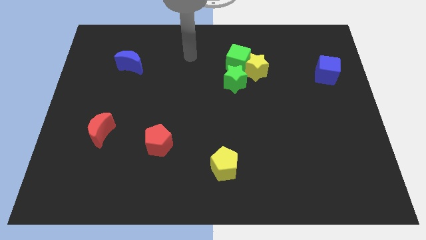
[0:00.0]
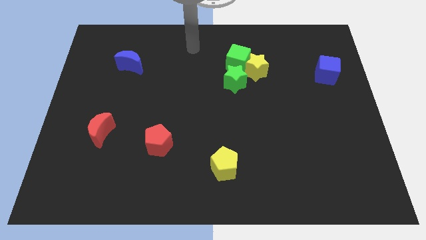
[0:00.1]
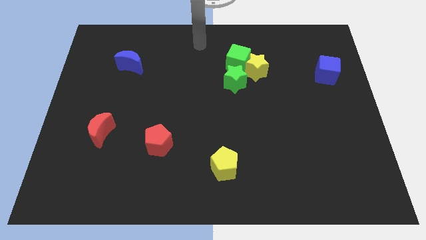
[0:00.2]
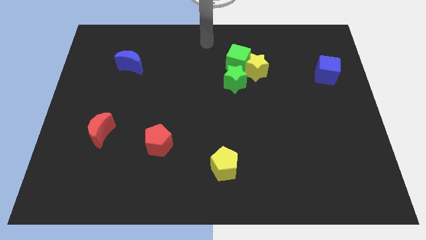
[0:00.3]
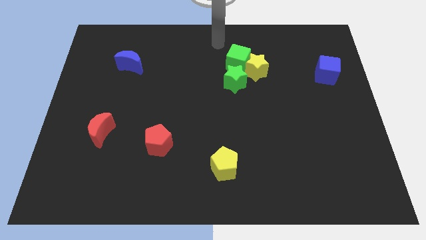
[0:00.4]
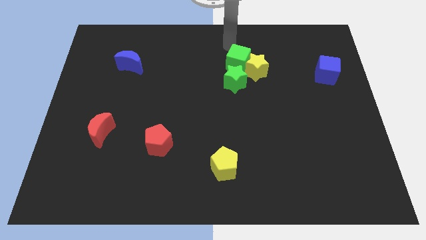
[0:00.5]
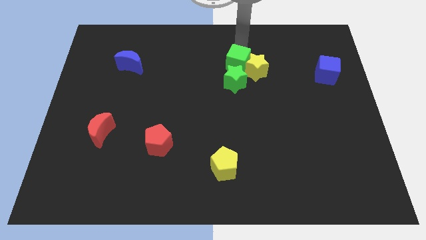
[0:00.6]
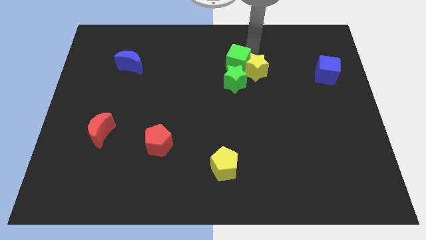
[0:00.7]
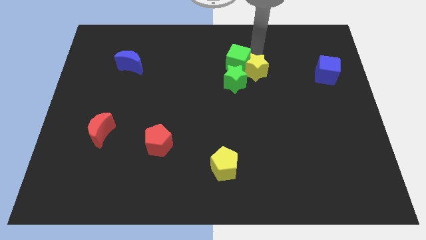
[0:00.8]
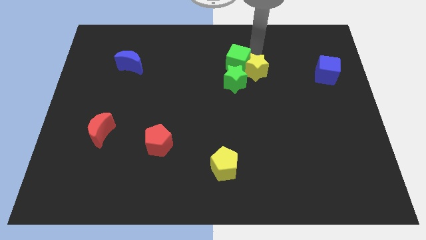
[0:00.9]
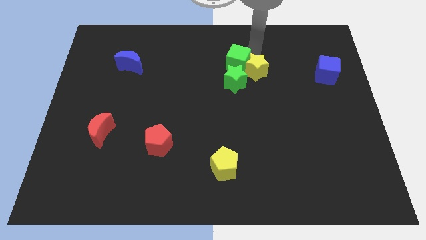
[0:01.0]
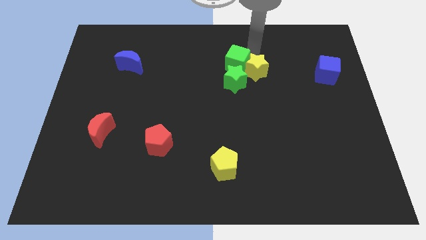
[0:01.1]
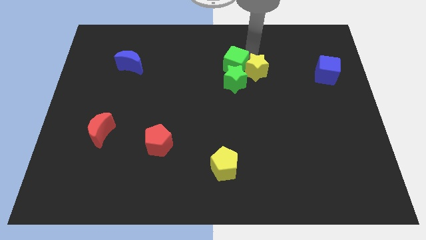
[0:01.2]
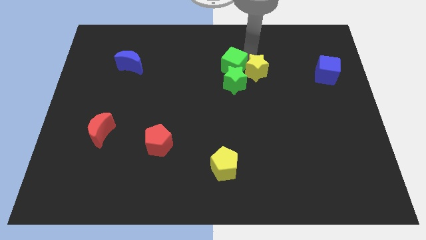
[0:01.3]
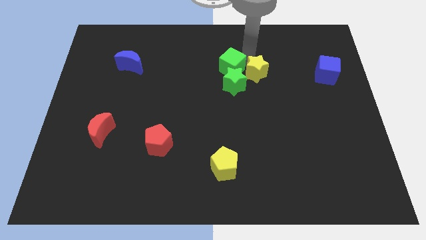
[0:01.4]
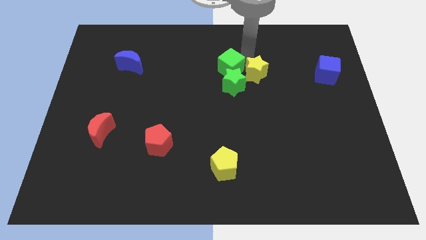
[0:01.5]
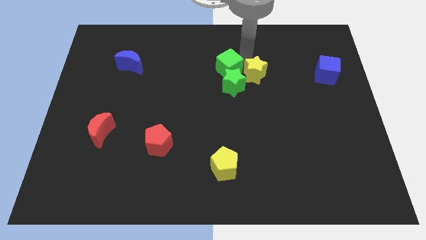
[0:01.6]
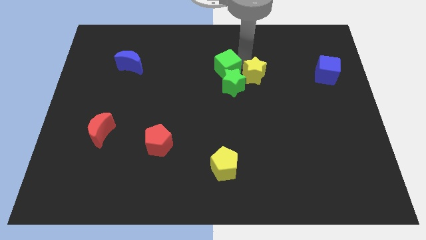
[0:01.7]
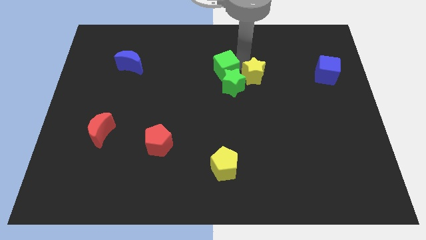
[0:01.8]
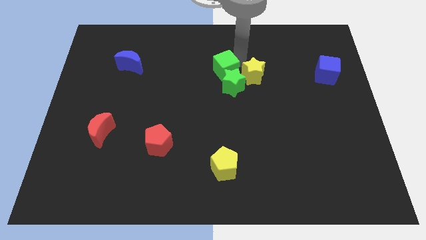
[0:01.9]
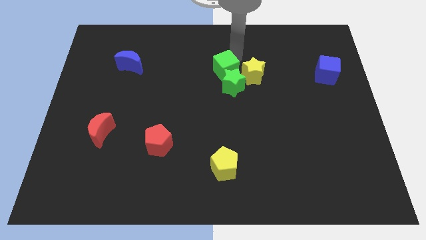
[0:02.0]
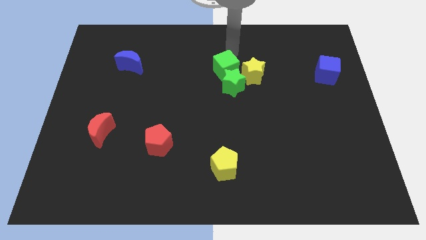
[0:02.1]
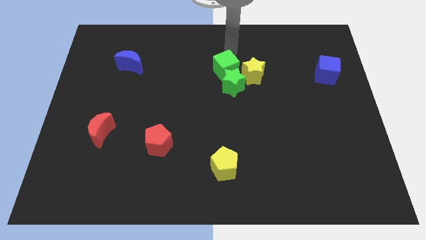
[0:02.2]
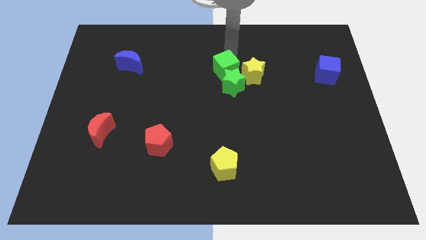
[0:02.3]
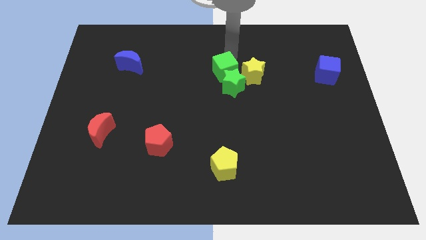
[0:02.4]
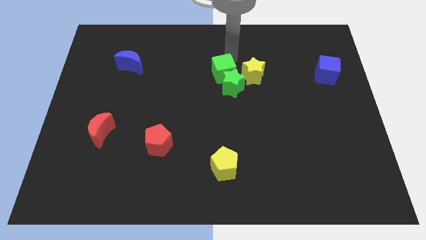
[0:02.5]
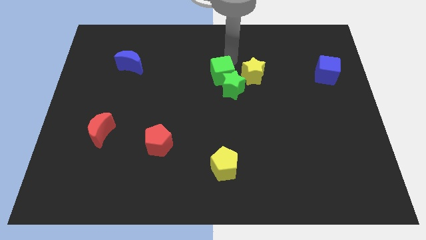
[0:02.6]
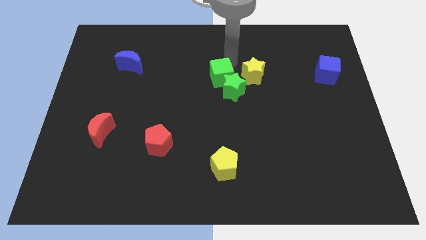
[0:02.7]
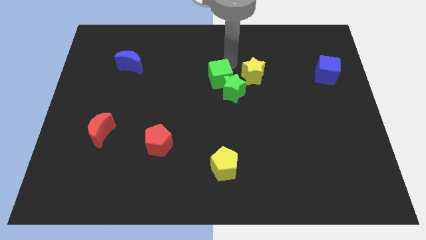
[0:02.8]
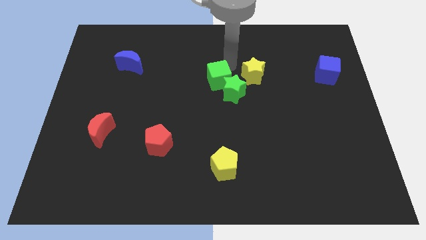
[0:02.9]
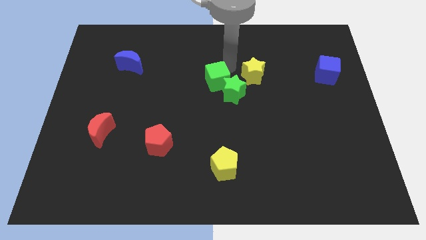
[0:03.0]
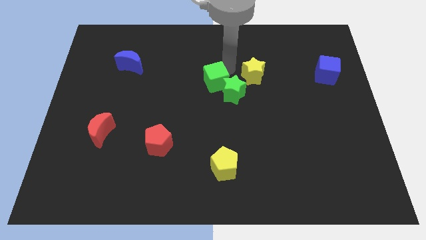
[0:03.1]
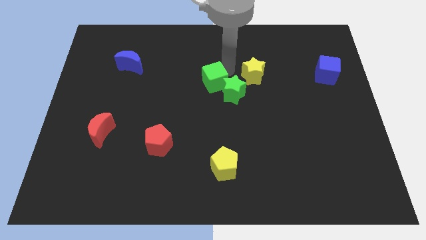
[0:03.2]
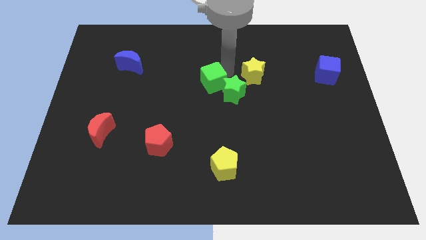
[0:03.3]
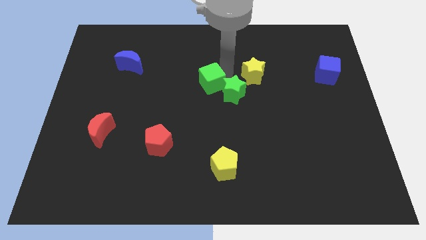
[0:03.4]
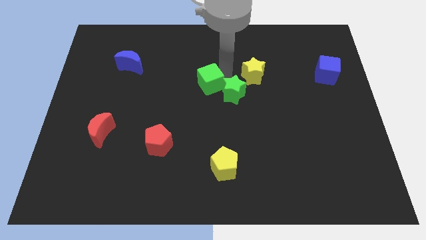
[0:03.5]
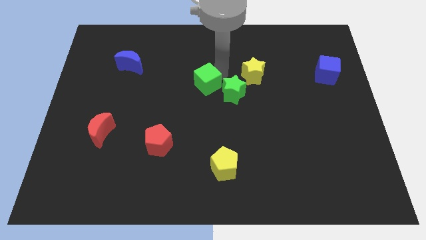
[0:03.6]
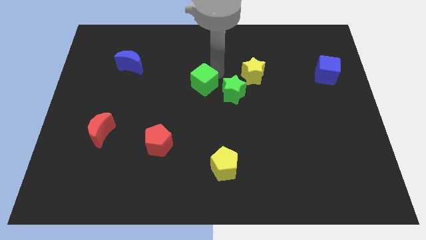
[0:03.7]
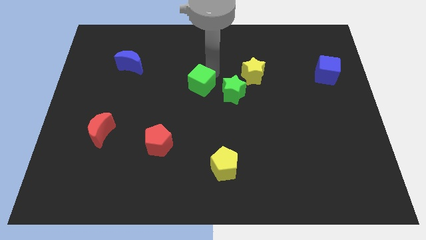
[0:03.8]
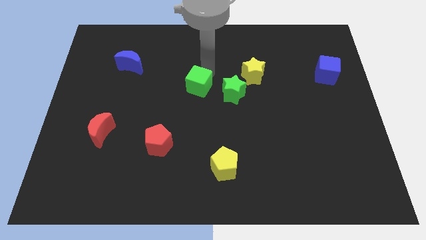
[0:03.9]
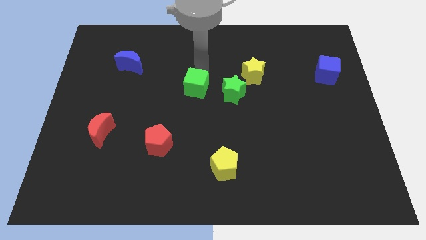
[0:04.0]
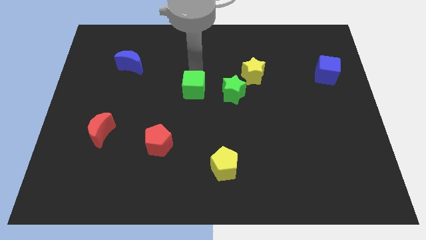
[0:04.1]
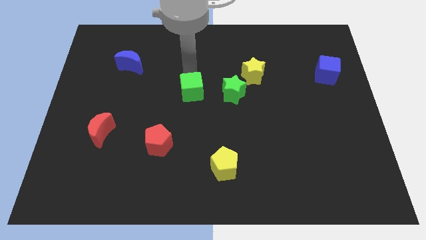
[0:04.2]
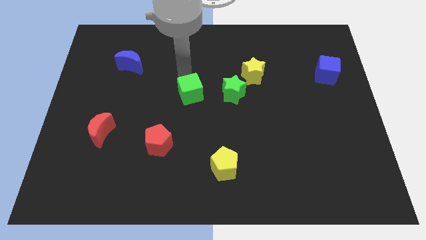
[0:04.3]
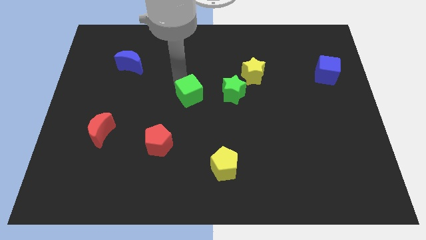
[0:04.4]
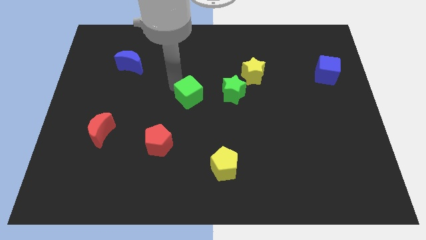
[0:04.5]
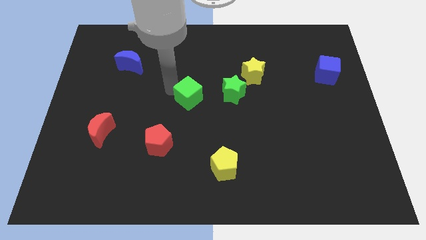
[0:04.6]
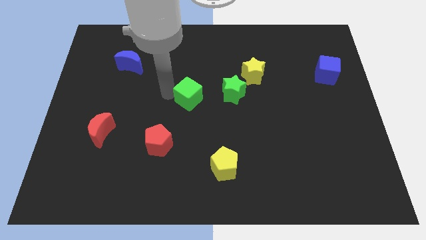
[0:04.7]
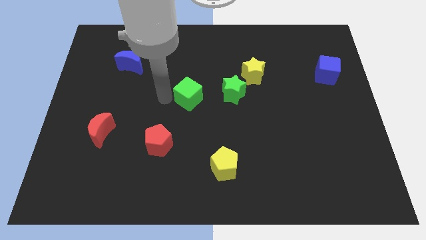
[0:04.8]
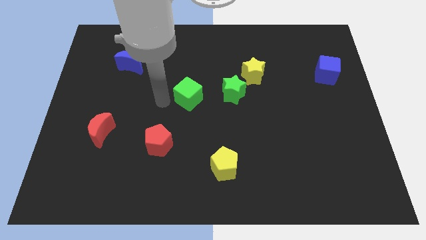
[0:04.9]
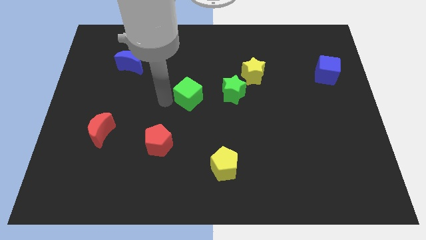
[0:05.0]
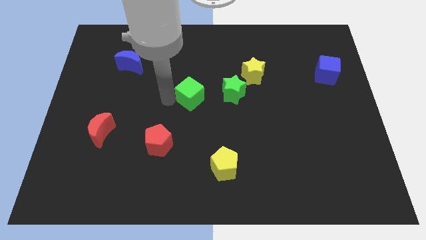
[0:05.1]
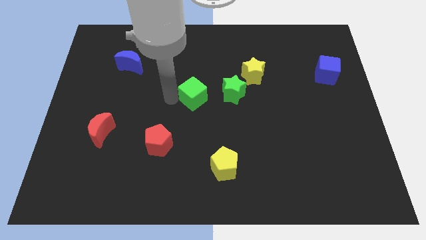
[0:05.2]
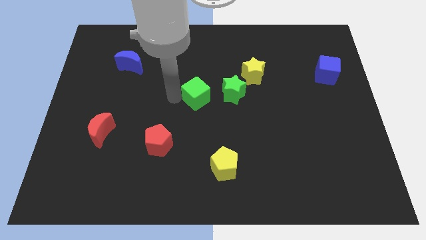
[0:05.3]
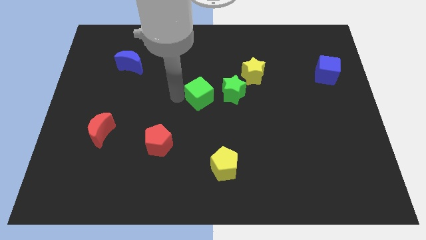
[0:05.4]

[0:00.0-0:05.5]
slide the green cube down a bit

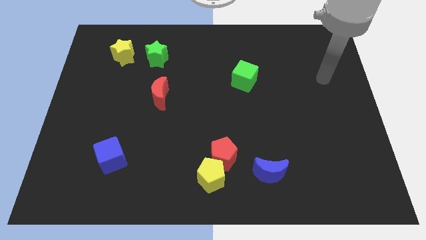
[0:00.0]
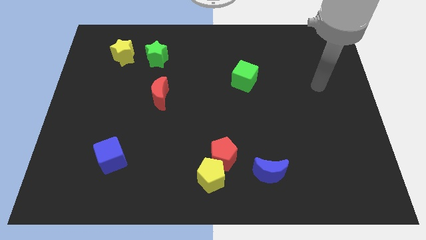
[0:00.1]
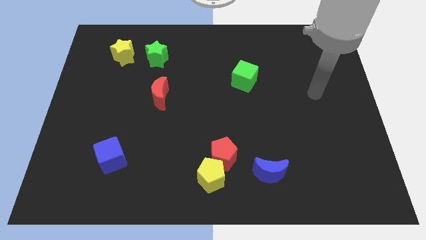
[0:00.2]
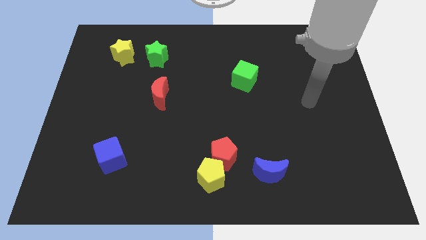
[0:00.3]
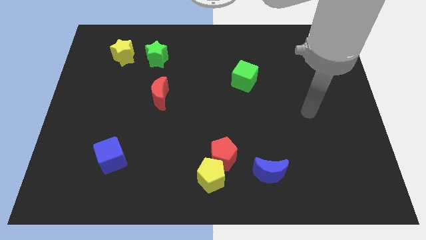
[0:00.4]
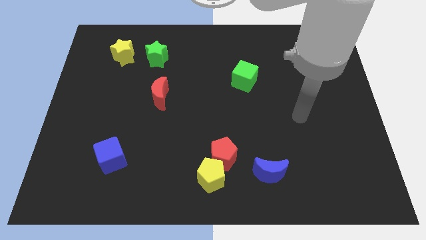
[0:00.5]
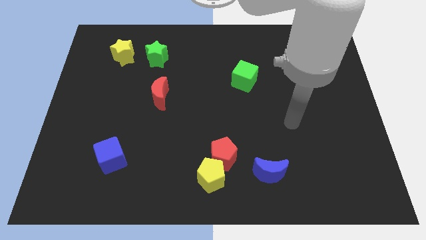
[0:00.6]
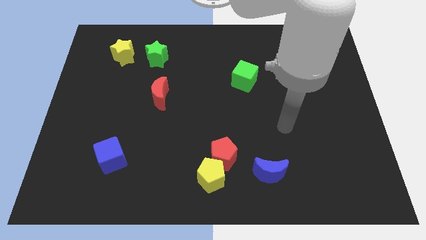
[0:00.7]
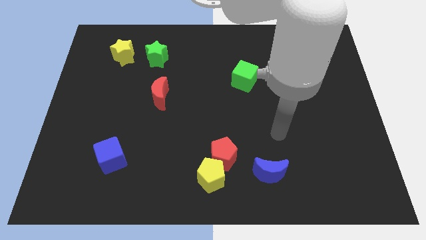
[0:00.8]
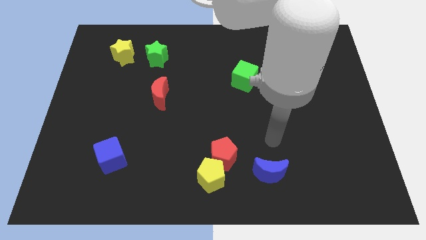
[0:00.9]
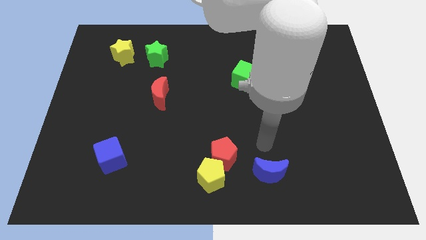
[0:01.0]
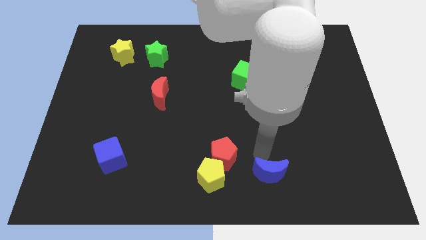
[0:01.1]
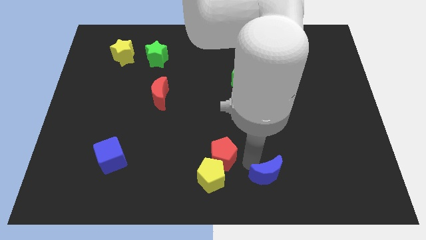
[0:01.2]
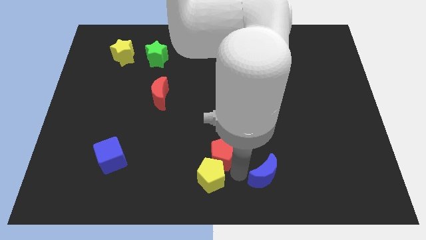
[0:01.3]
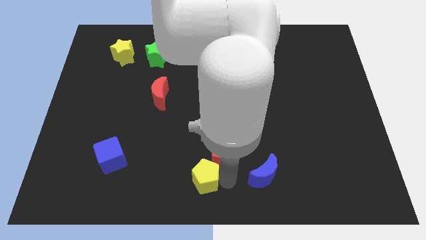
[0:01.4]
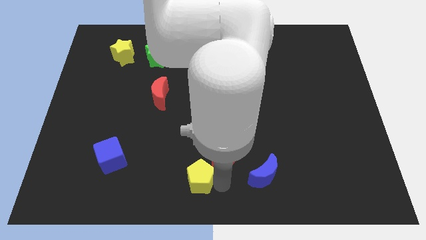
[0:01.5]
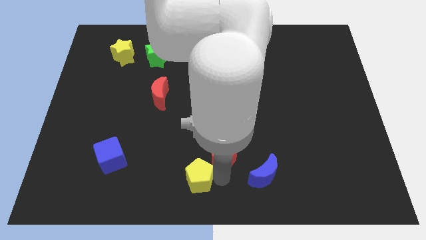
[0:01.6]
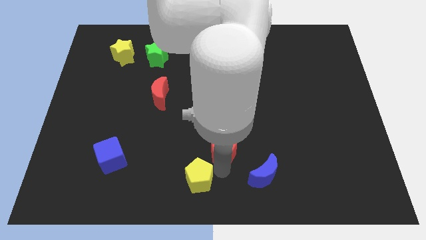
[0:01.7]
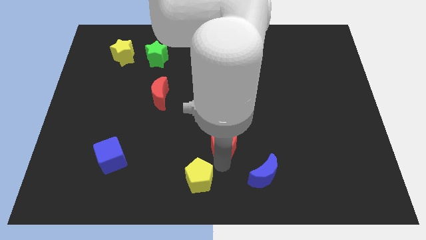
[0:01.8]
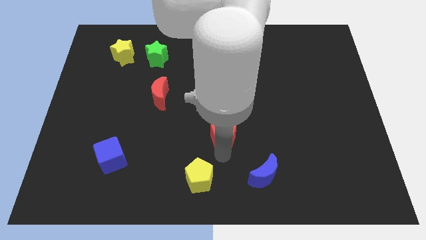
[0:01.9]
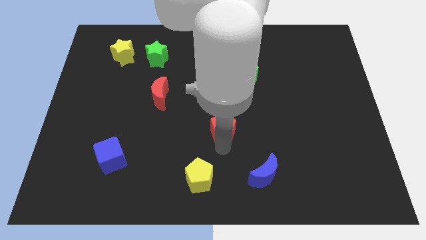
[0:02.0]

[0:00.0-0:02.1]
slide the red pentagon upwards slightly
